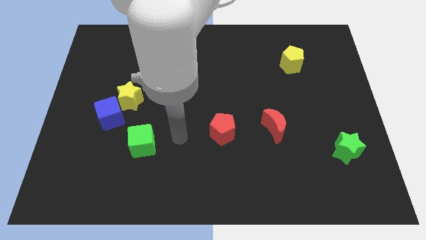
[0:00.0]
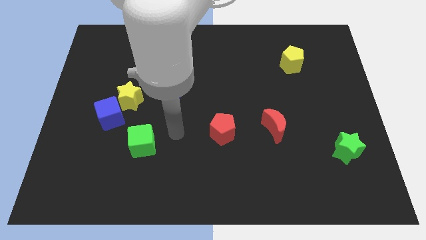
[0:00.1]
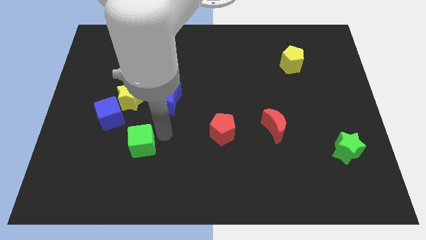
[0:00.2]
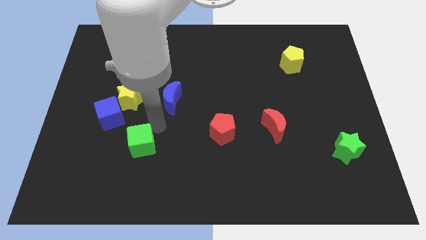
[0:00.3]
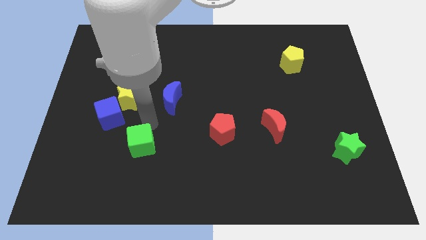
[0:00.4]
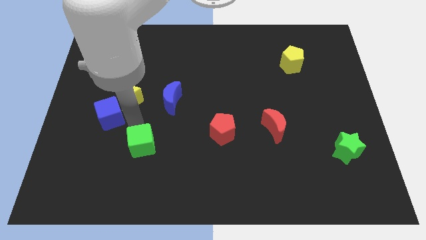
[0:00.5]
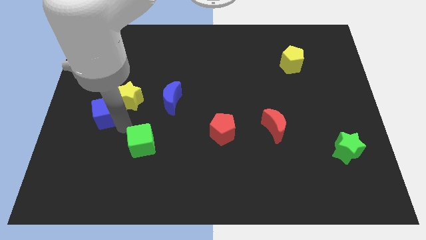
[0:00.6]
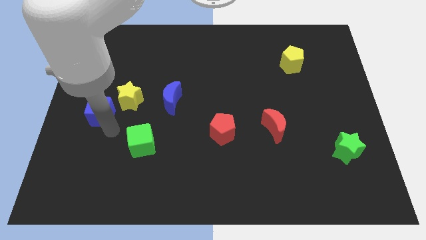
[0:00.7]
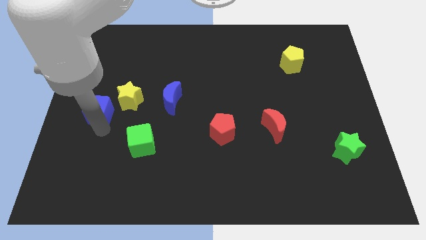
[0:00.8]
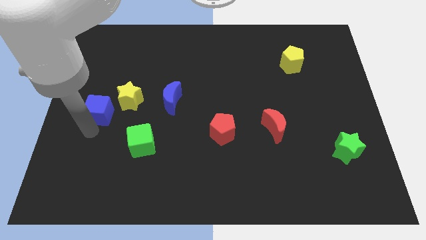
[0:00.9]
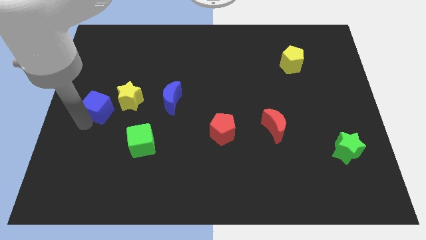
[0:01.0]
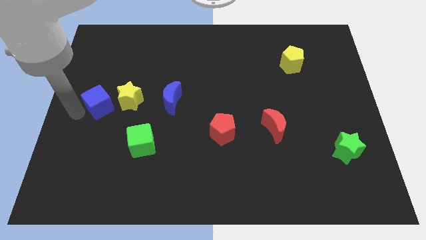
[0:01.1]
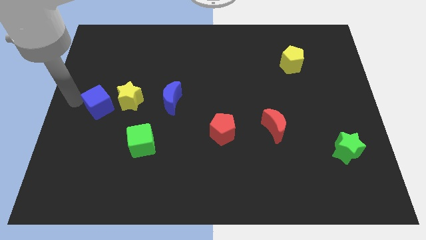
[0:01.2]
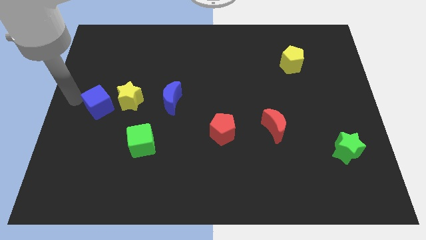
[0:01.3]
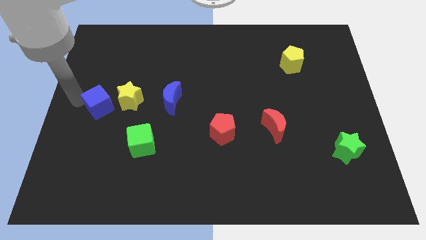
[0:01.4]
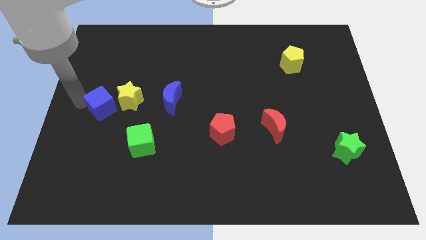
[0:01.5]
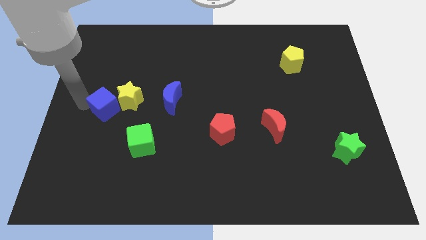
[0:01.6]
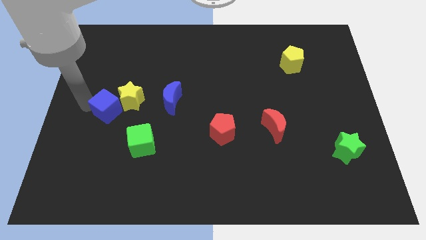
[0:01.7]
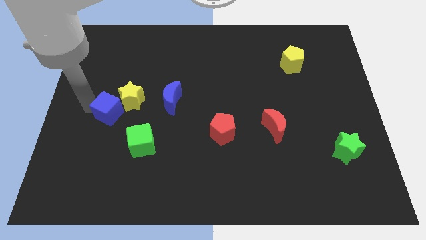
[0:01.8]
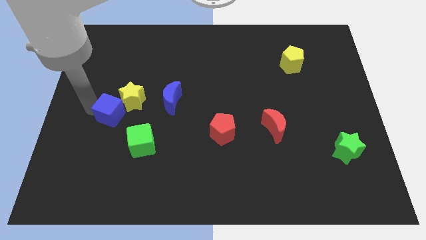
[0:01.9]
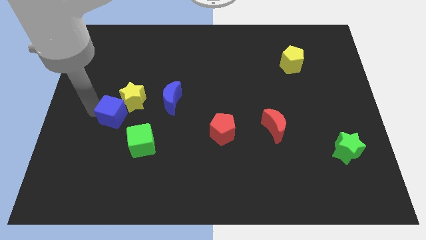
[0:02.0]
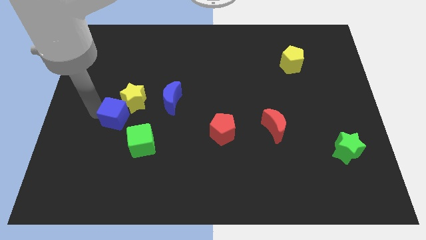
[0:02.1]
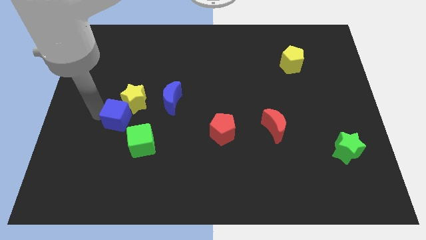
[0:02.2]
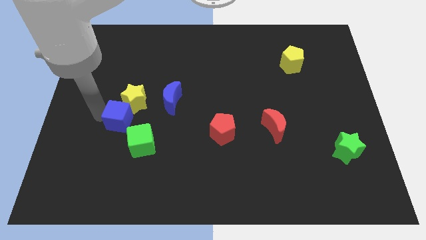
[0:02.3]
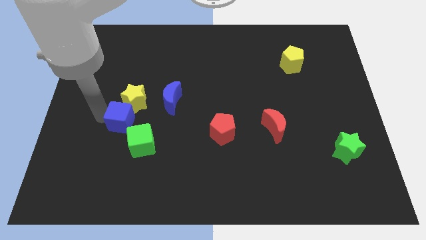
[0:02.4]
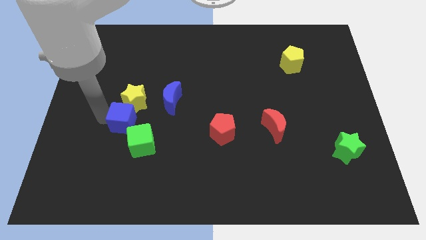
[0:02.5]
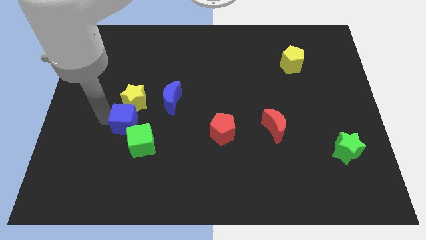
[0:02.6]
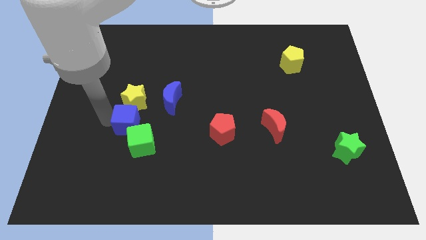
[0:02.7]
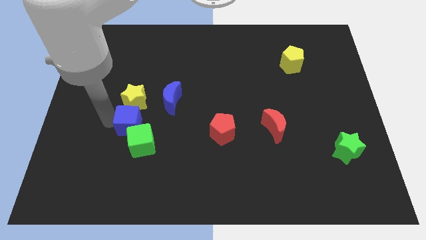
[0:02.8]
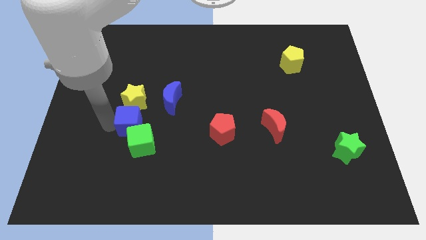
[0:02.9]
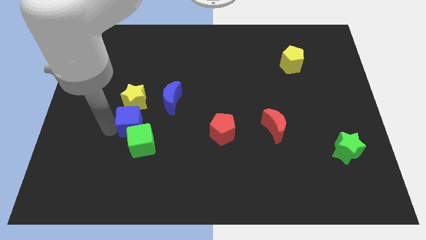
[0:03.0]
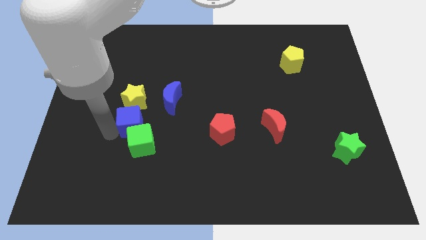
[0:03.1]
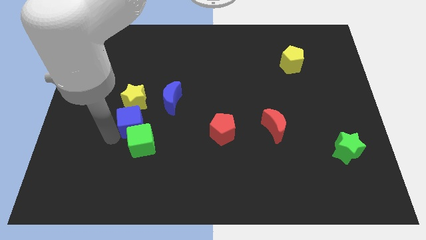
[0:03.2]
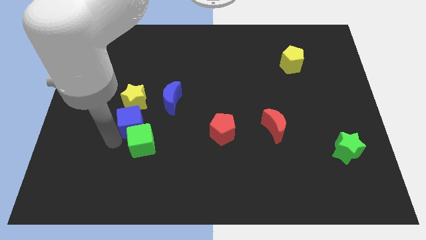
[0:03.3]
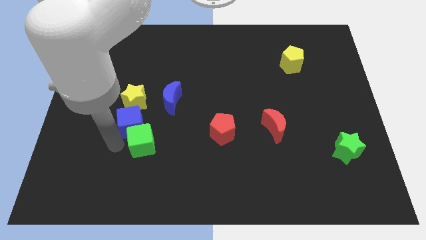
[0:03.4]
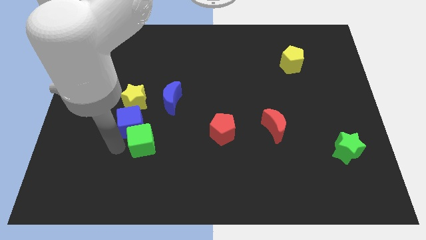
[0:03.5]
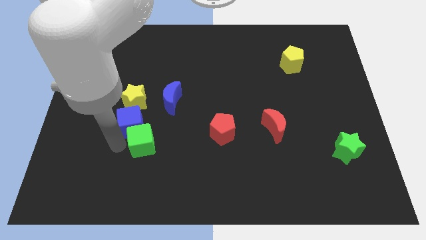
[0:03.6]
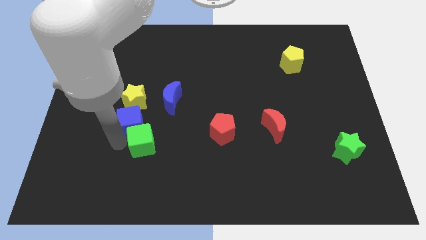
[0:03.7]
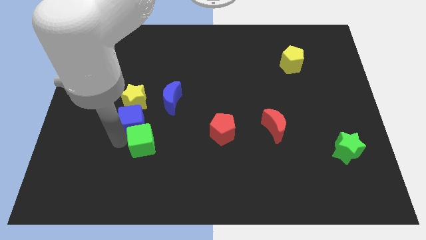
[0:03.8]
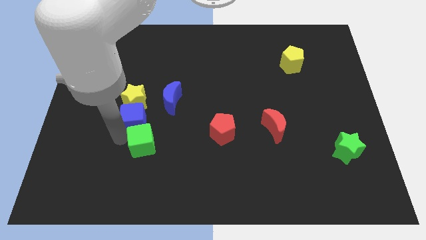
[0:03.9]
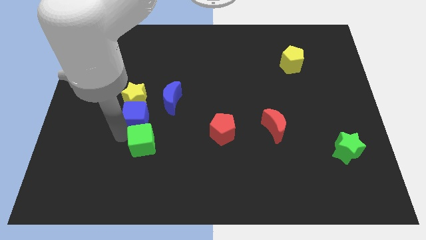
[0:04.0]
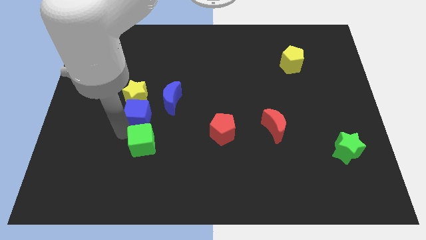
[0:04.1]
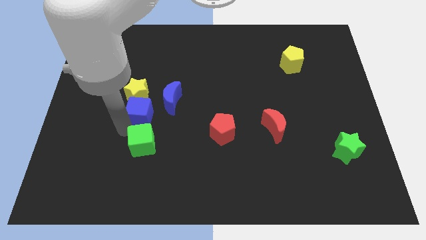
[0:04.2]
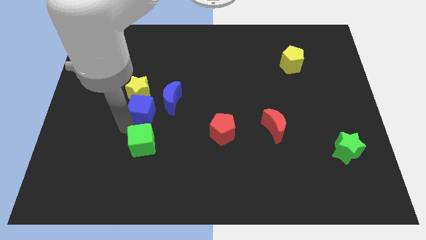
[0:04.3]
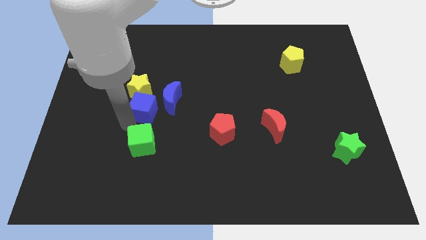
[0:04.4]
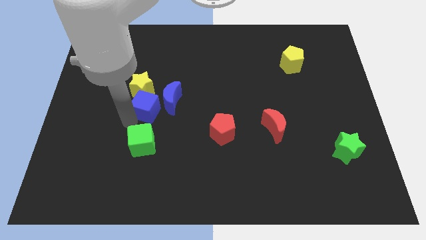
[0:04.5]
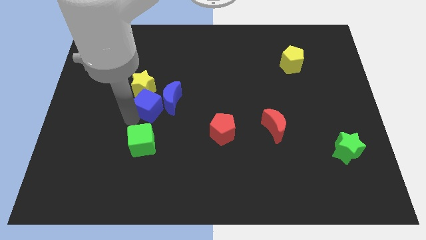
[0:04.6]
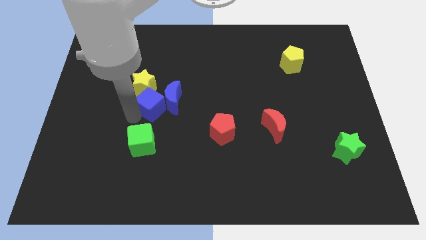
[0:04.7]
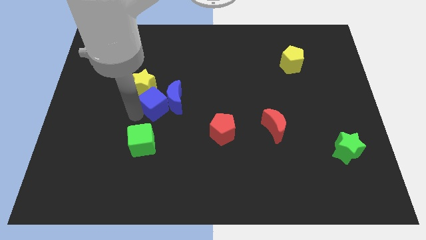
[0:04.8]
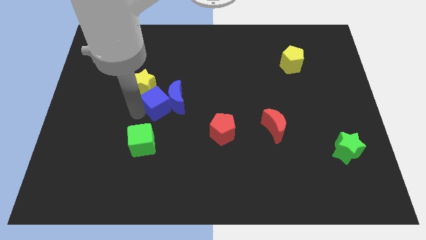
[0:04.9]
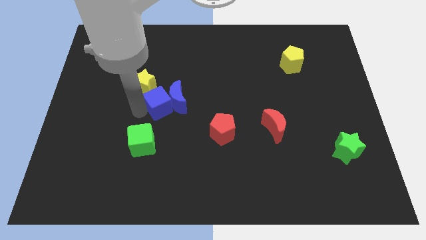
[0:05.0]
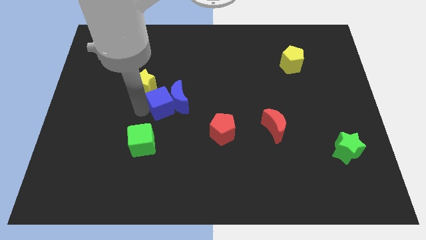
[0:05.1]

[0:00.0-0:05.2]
slide the blue cube to the middle
